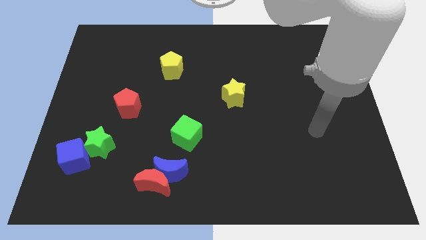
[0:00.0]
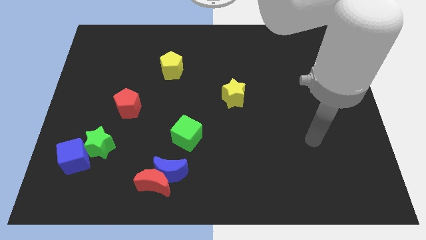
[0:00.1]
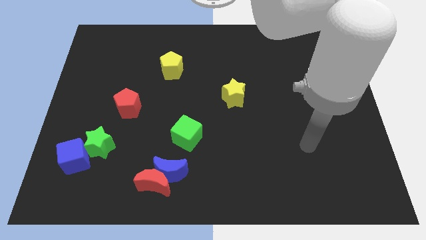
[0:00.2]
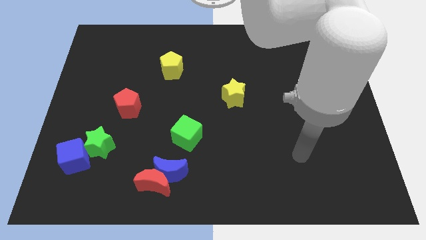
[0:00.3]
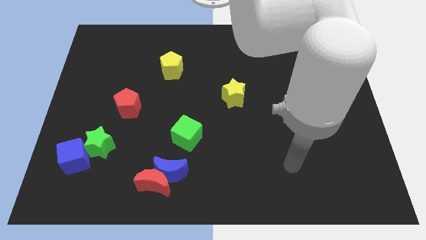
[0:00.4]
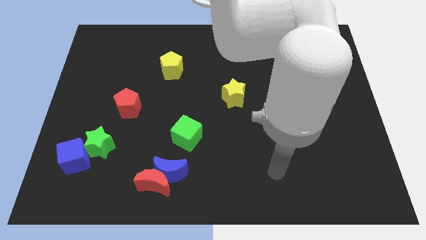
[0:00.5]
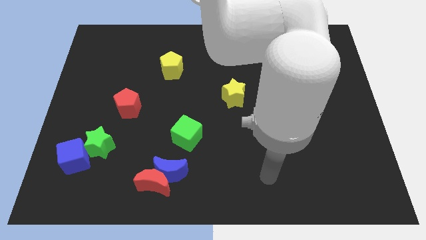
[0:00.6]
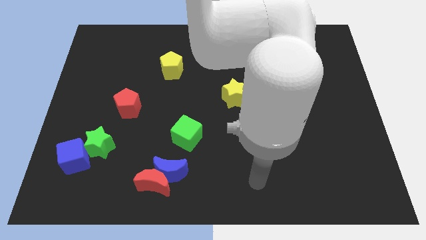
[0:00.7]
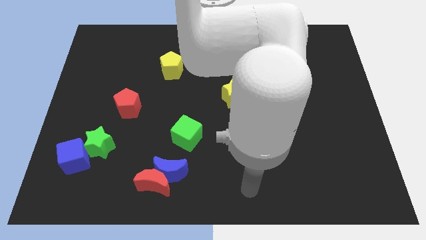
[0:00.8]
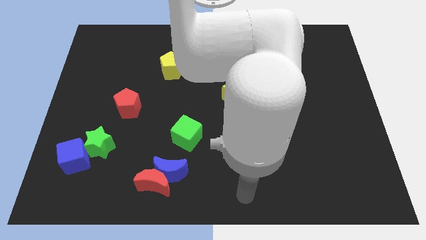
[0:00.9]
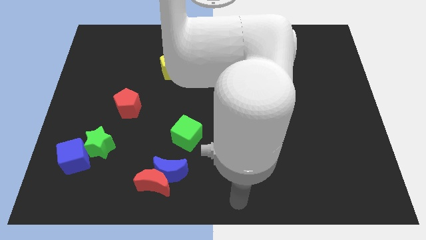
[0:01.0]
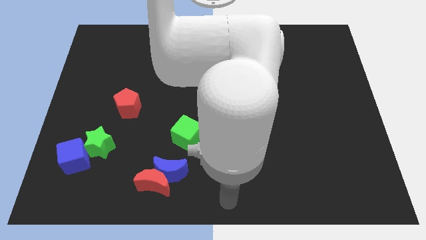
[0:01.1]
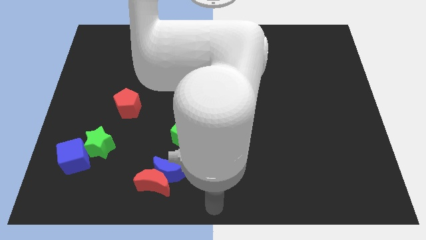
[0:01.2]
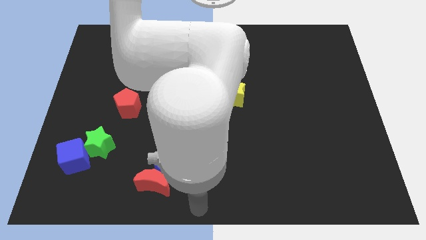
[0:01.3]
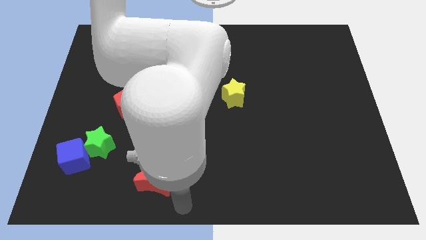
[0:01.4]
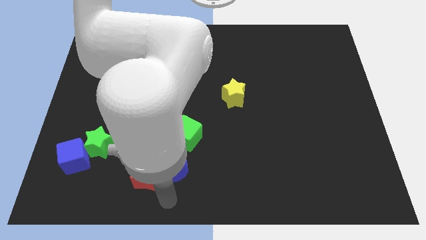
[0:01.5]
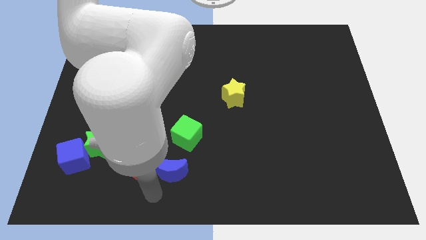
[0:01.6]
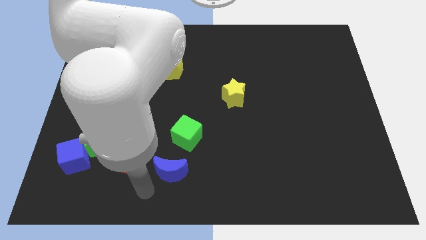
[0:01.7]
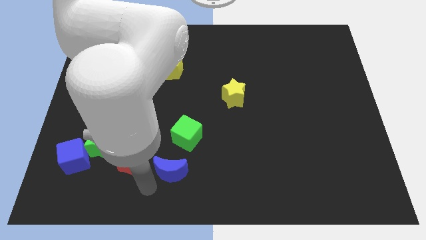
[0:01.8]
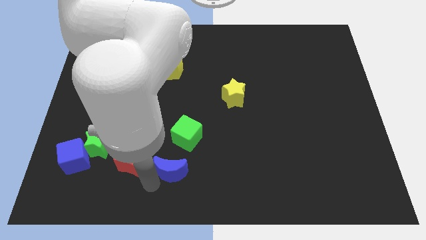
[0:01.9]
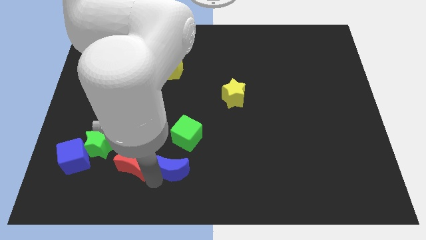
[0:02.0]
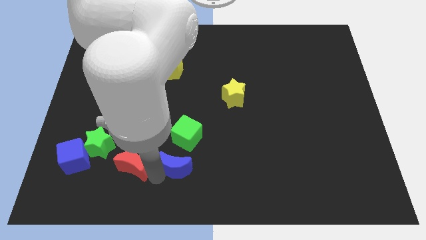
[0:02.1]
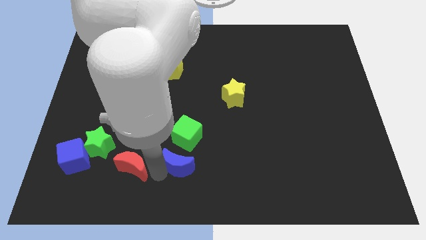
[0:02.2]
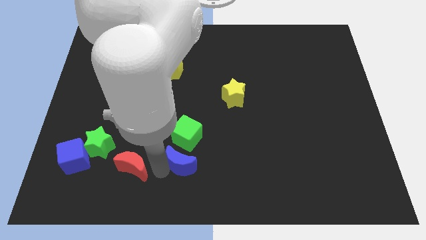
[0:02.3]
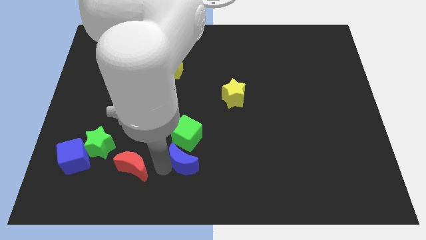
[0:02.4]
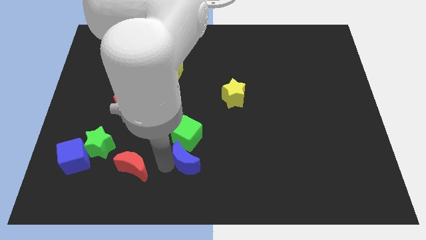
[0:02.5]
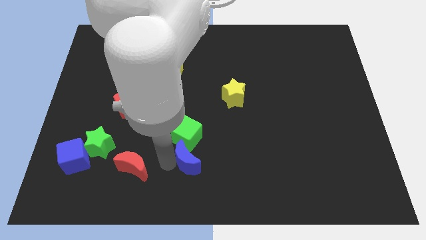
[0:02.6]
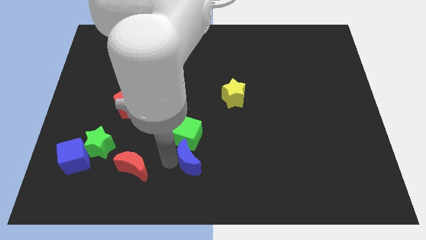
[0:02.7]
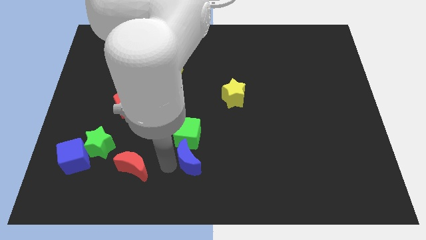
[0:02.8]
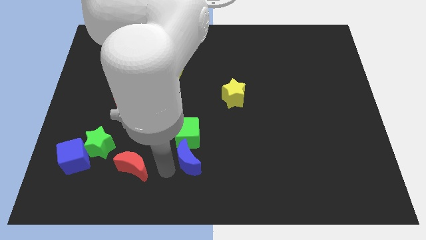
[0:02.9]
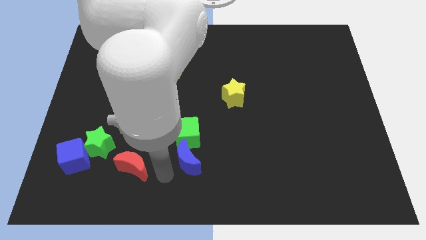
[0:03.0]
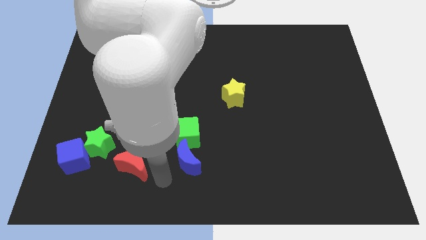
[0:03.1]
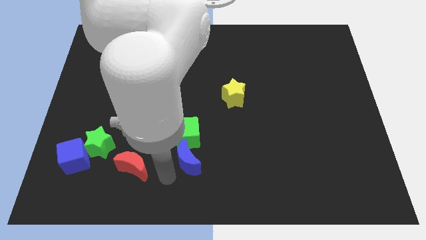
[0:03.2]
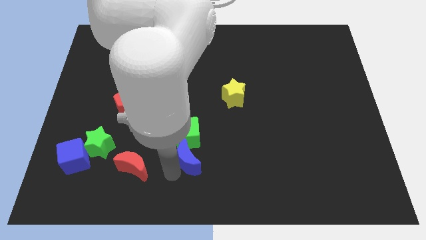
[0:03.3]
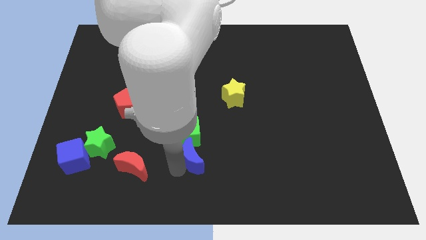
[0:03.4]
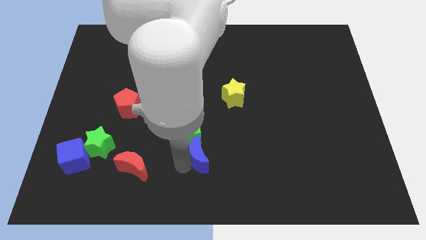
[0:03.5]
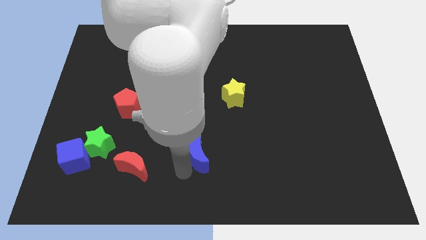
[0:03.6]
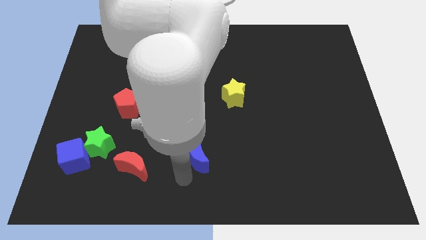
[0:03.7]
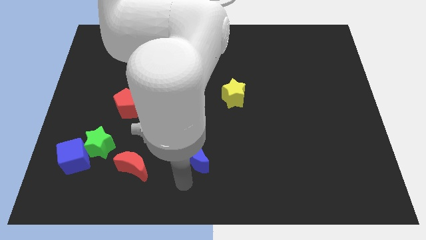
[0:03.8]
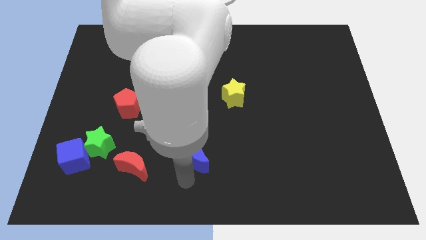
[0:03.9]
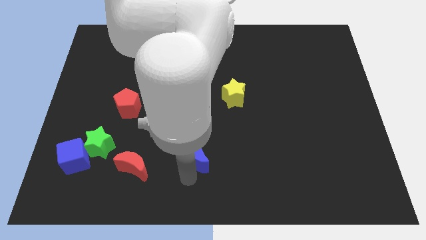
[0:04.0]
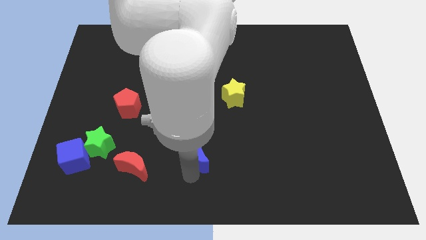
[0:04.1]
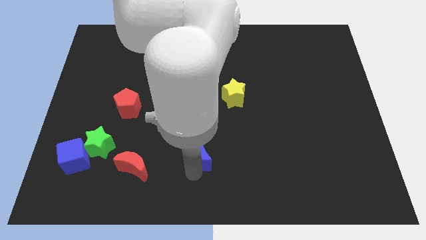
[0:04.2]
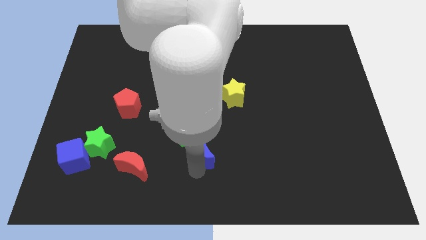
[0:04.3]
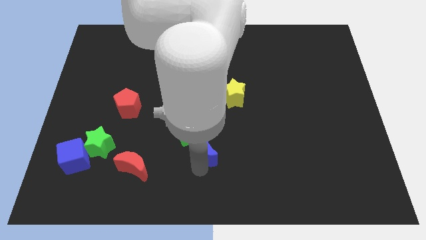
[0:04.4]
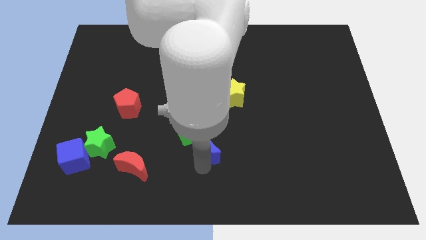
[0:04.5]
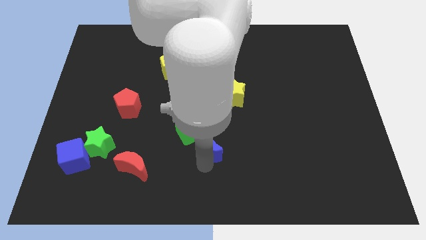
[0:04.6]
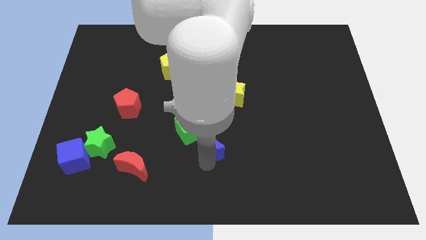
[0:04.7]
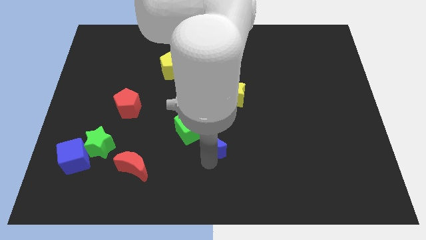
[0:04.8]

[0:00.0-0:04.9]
move the blue moon to the center
